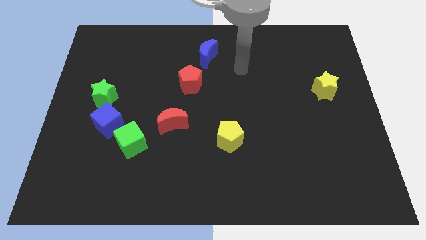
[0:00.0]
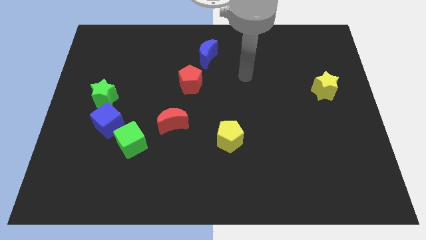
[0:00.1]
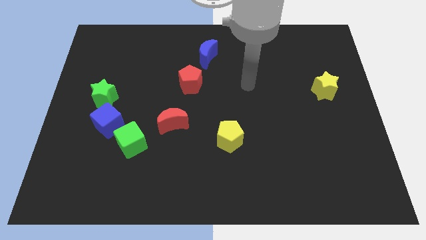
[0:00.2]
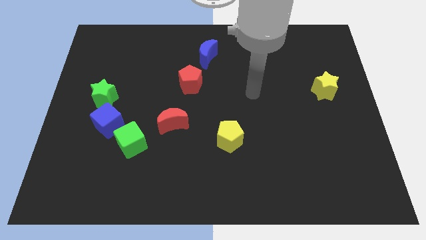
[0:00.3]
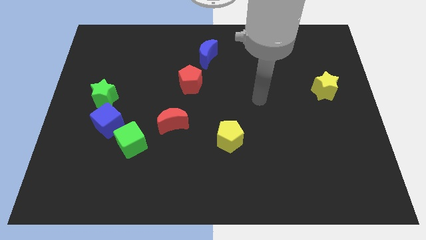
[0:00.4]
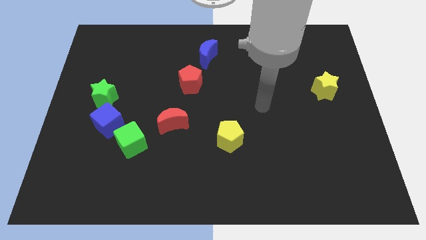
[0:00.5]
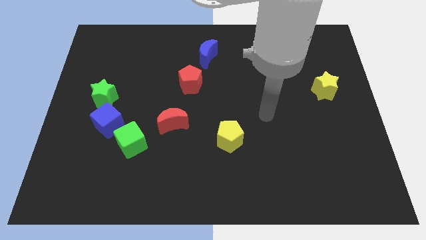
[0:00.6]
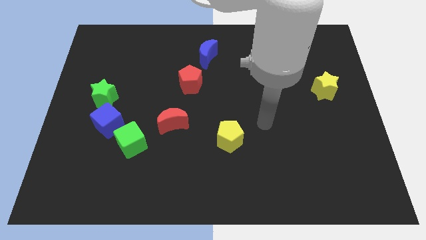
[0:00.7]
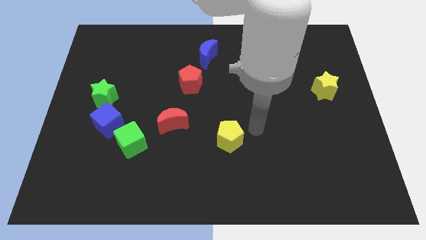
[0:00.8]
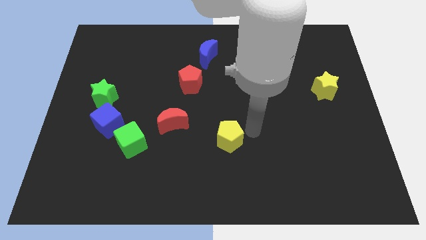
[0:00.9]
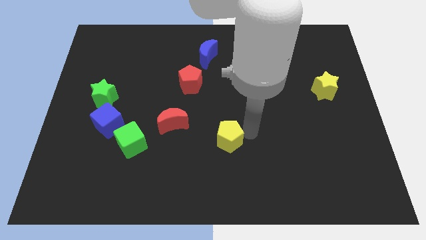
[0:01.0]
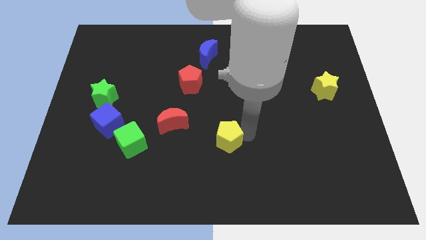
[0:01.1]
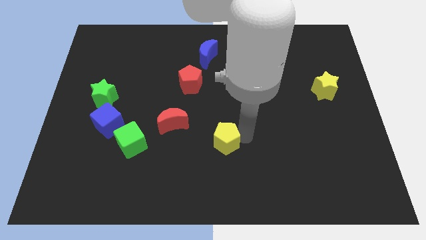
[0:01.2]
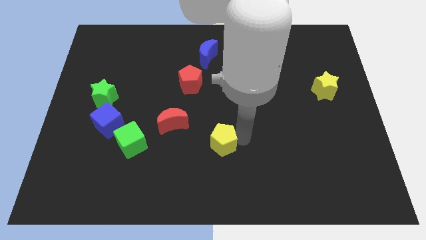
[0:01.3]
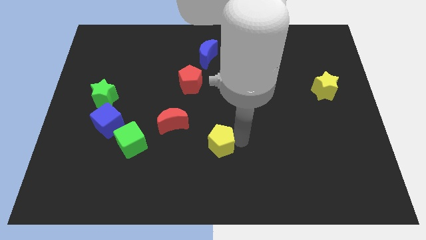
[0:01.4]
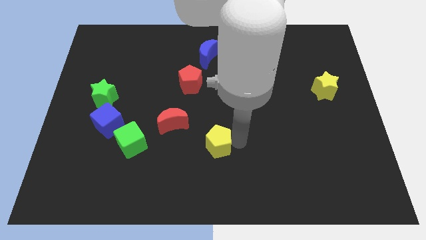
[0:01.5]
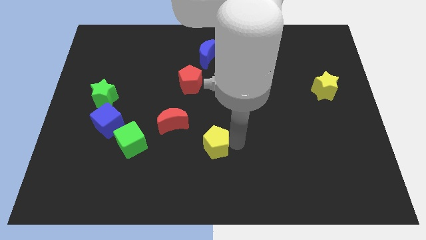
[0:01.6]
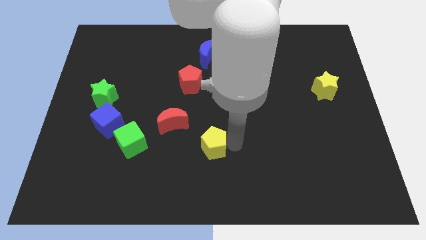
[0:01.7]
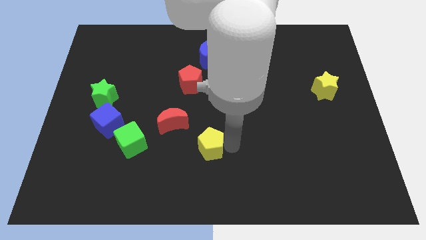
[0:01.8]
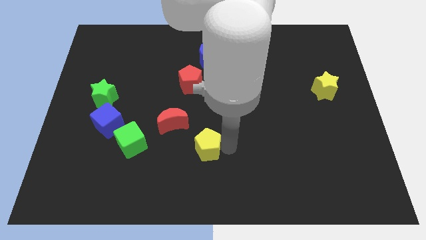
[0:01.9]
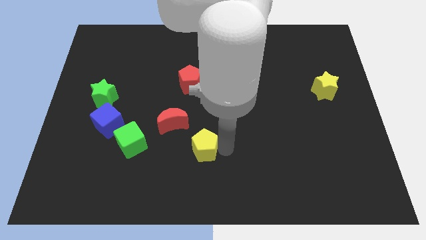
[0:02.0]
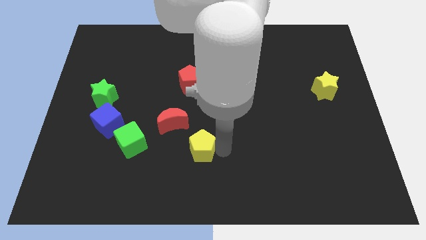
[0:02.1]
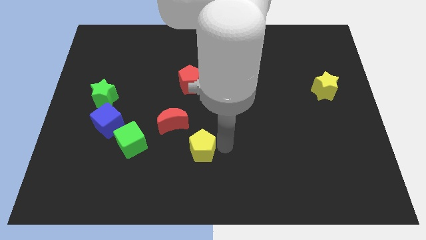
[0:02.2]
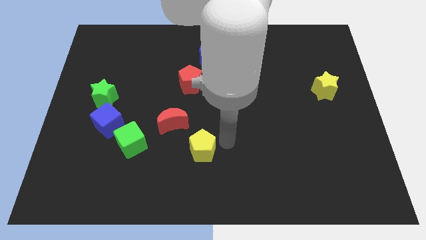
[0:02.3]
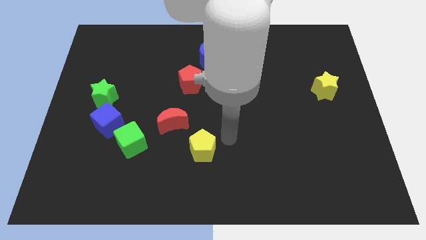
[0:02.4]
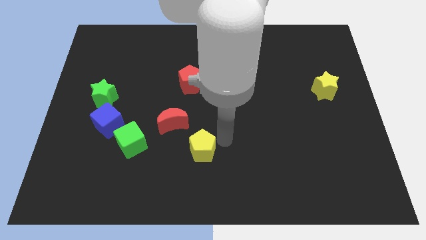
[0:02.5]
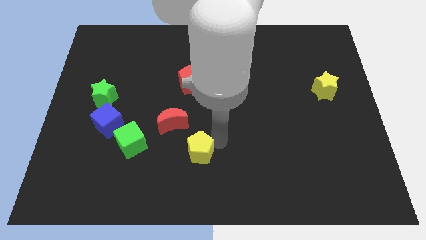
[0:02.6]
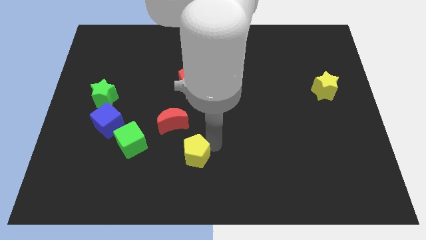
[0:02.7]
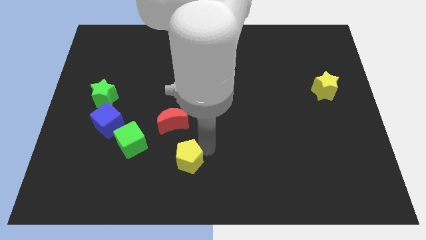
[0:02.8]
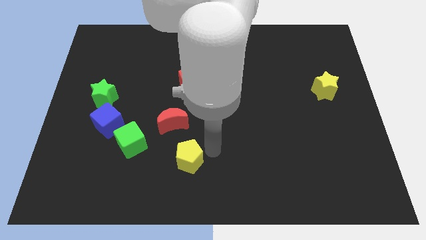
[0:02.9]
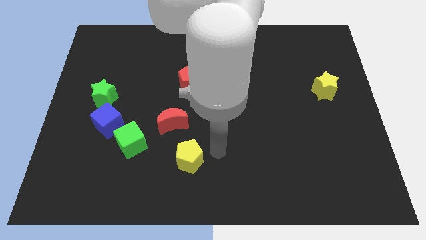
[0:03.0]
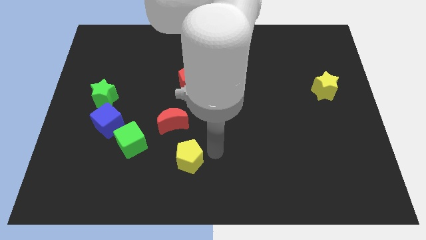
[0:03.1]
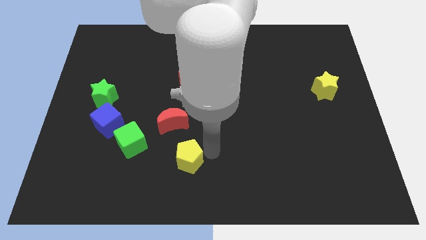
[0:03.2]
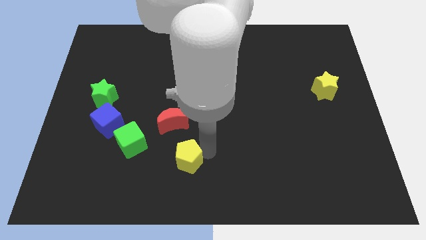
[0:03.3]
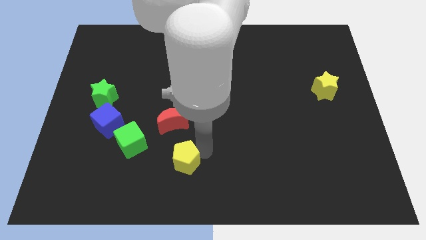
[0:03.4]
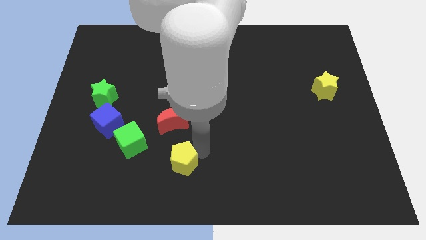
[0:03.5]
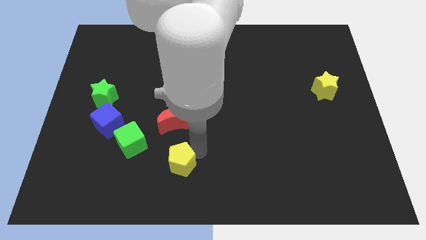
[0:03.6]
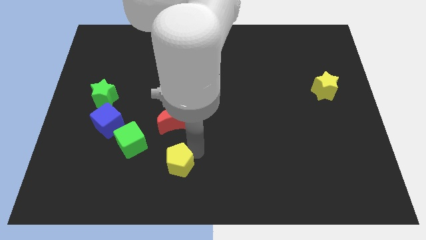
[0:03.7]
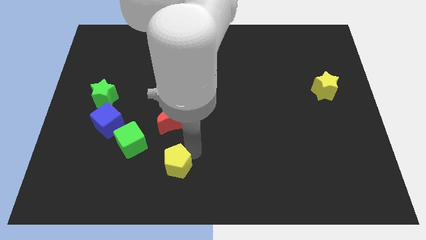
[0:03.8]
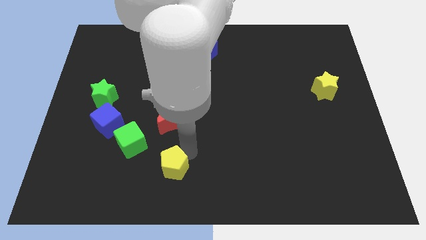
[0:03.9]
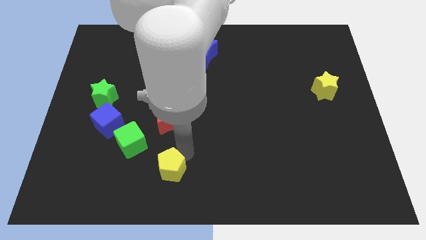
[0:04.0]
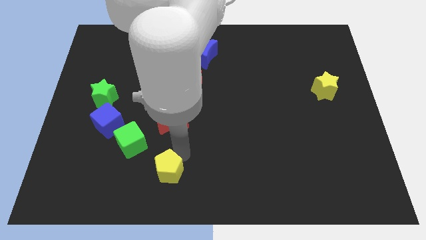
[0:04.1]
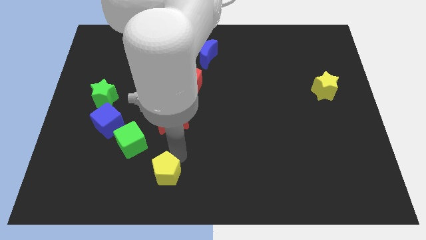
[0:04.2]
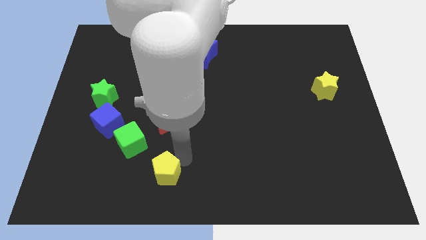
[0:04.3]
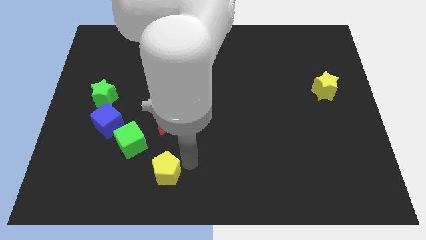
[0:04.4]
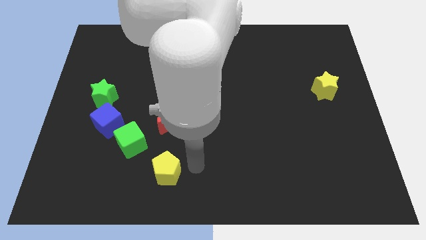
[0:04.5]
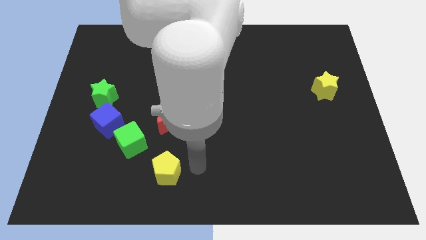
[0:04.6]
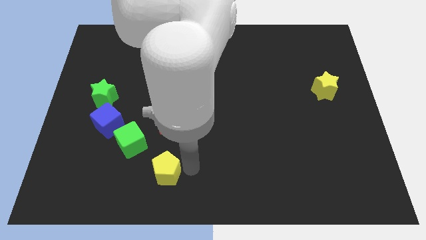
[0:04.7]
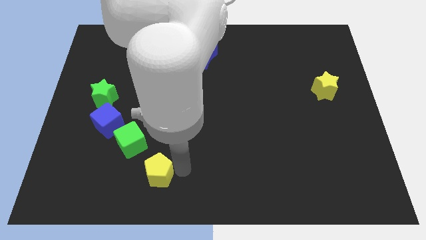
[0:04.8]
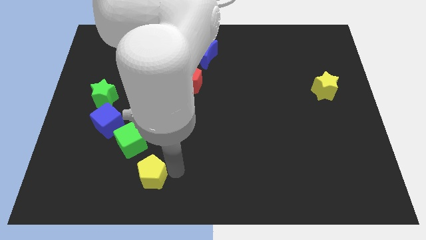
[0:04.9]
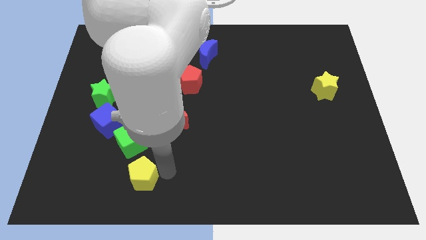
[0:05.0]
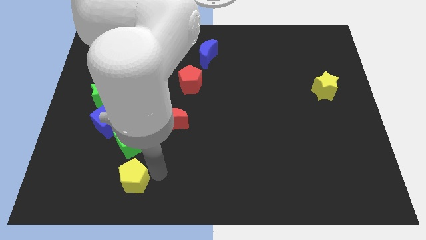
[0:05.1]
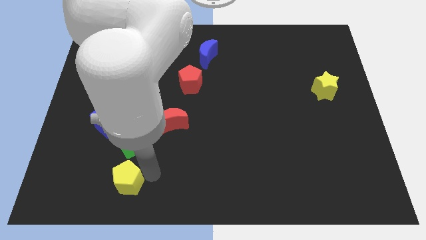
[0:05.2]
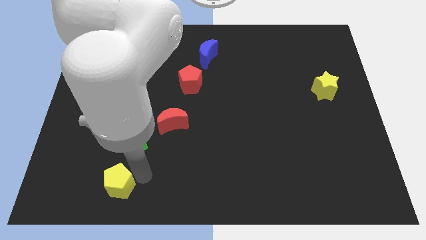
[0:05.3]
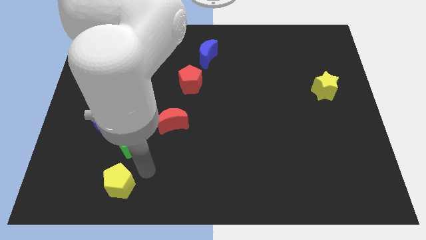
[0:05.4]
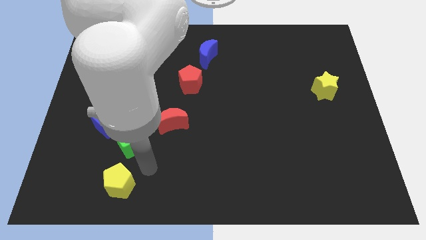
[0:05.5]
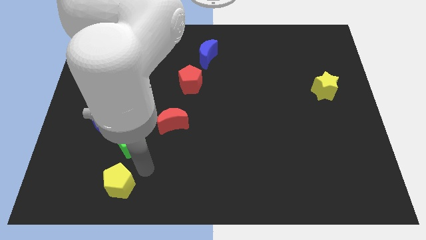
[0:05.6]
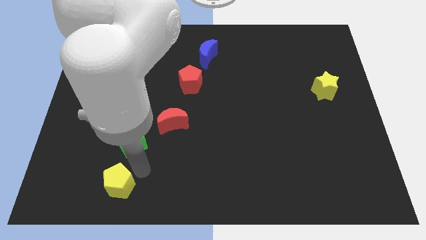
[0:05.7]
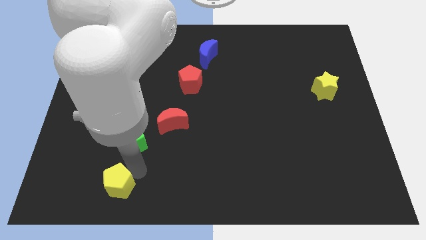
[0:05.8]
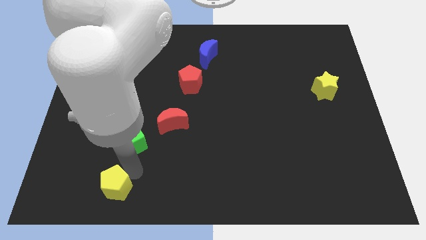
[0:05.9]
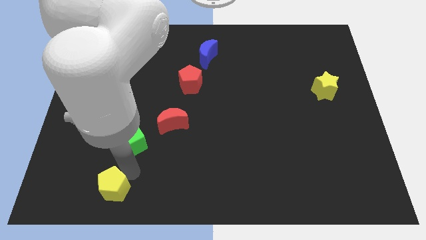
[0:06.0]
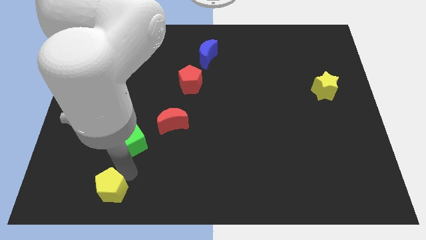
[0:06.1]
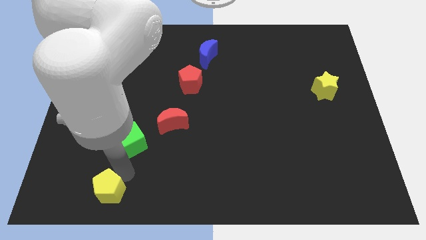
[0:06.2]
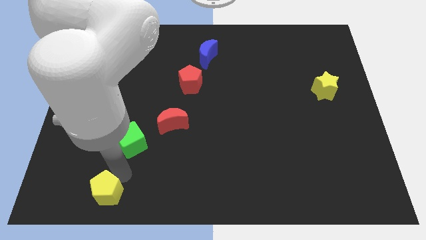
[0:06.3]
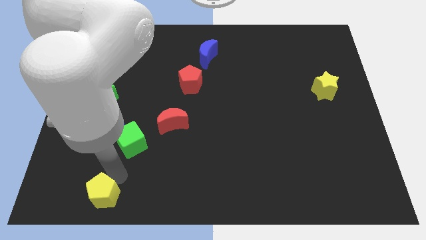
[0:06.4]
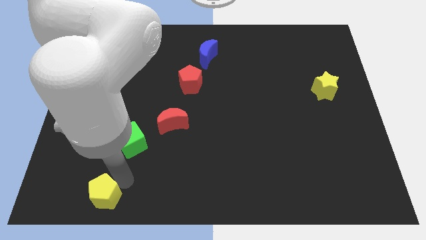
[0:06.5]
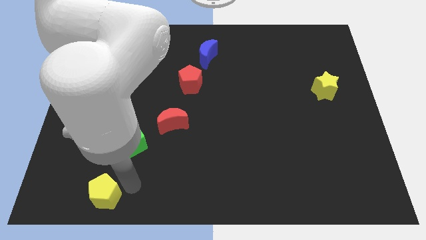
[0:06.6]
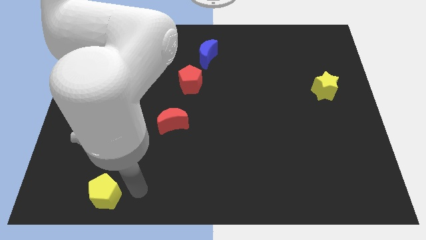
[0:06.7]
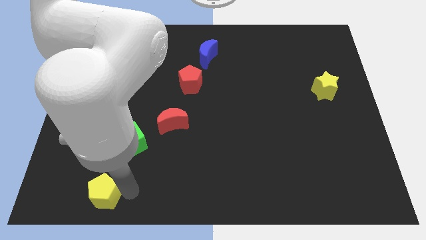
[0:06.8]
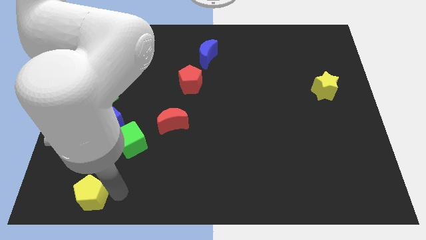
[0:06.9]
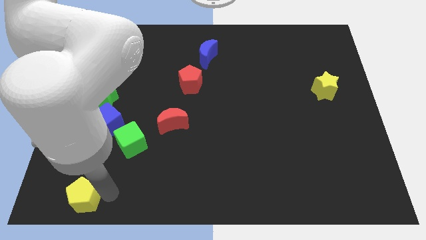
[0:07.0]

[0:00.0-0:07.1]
slide the yellow pentagon to the bottom left corner
